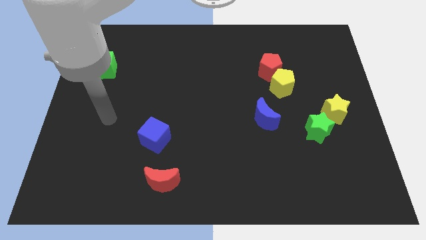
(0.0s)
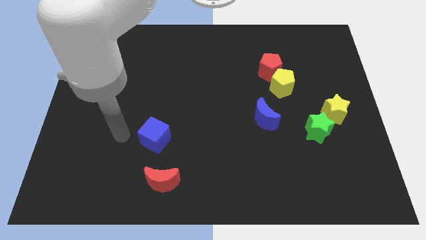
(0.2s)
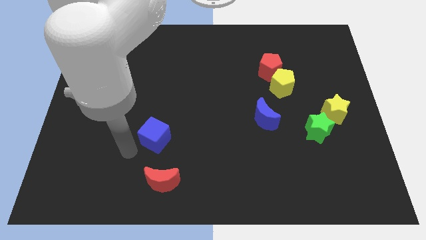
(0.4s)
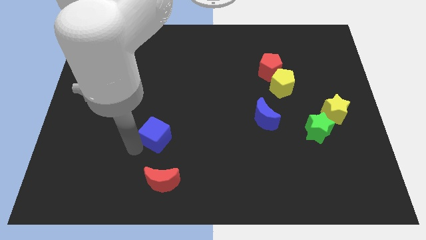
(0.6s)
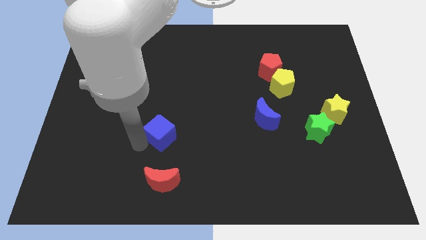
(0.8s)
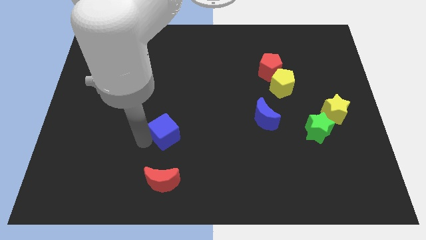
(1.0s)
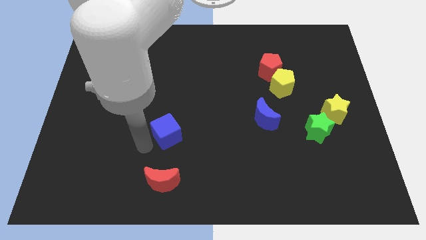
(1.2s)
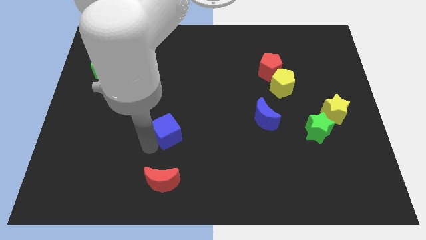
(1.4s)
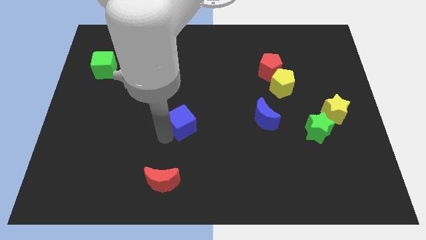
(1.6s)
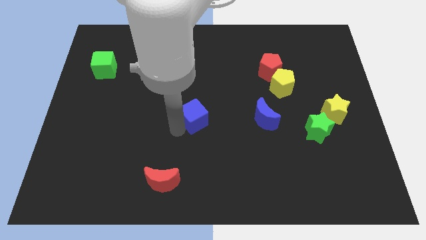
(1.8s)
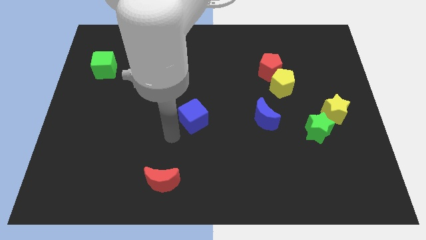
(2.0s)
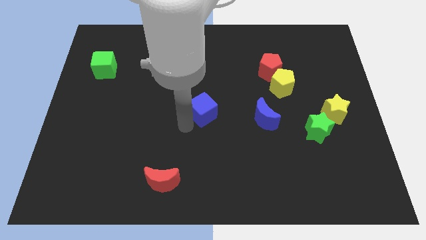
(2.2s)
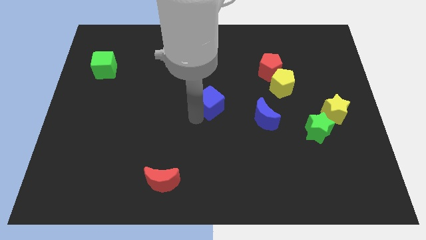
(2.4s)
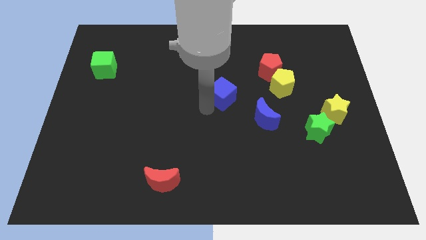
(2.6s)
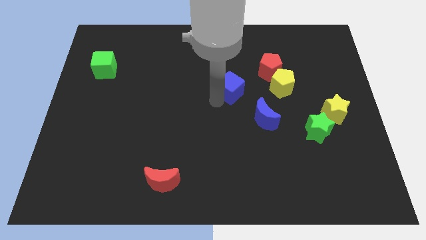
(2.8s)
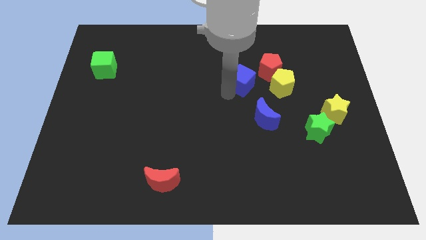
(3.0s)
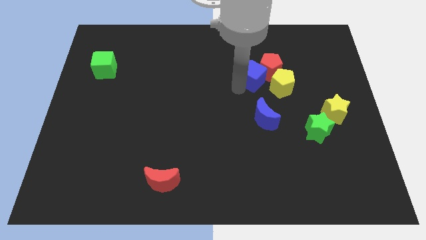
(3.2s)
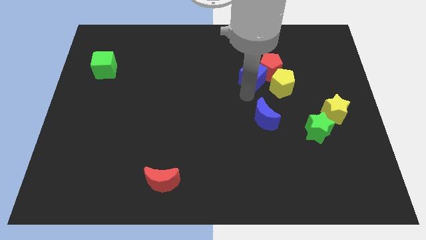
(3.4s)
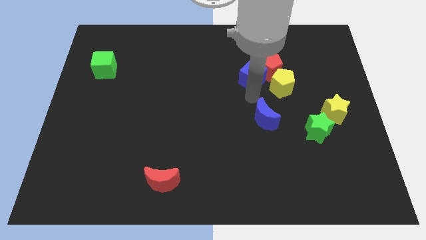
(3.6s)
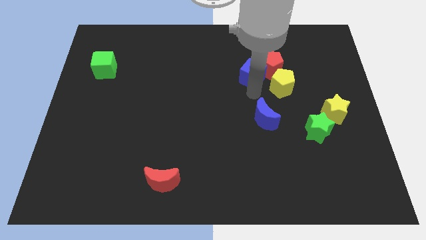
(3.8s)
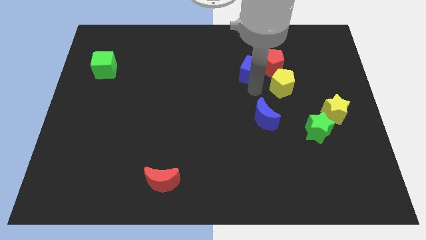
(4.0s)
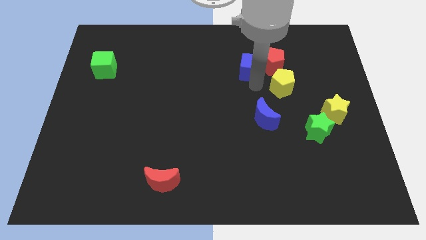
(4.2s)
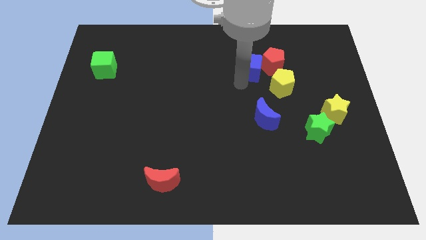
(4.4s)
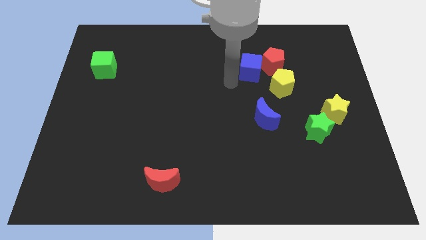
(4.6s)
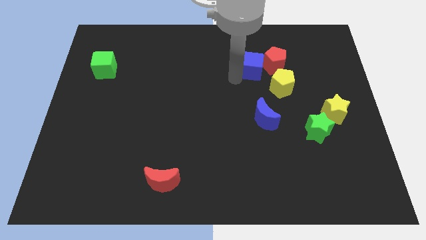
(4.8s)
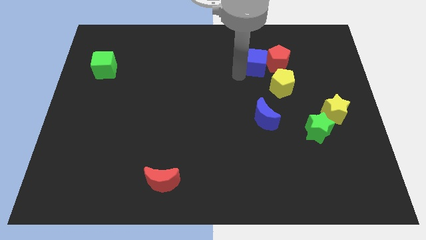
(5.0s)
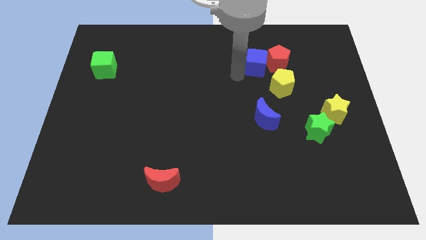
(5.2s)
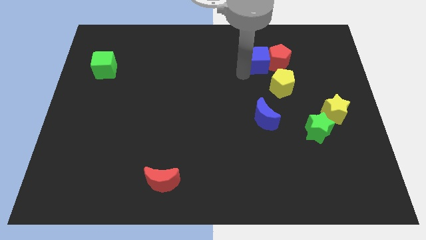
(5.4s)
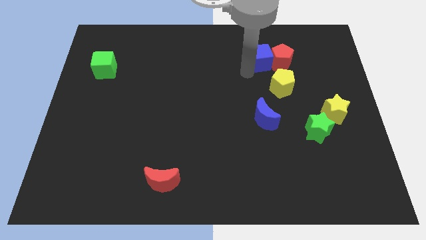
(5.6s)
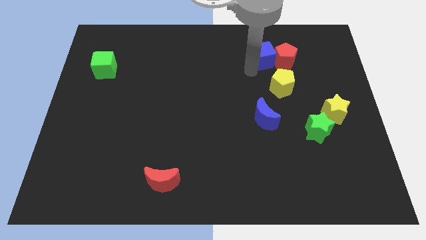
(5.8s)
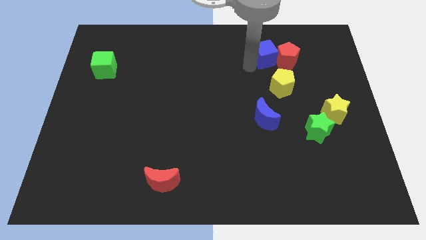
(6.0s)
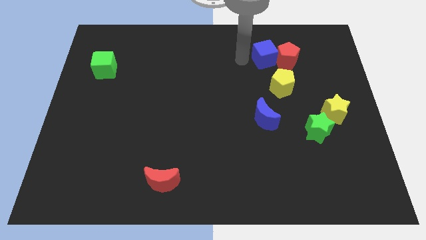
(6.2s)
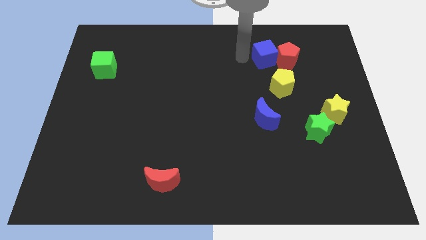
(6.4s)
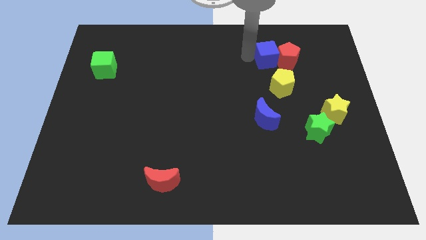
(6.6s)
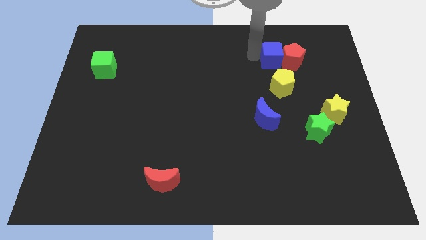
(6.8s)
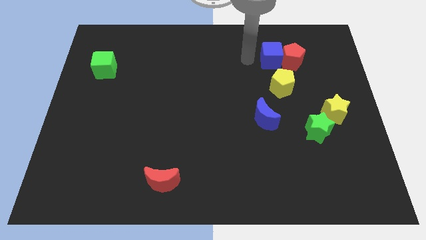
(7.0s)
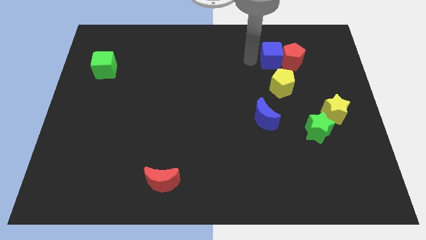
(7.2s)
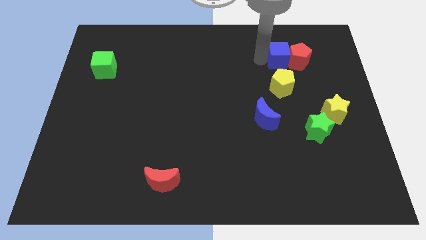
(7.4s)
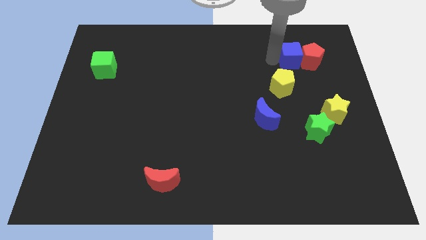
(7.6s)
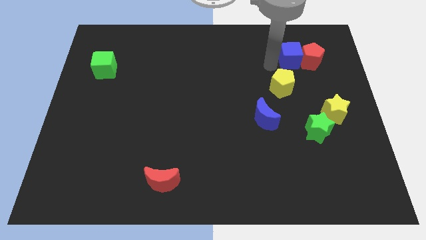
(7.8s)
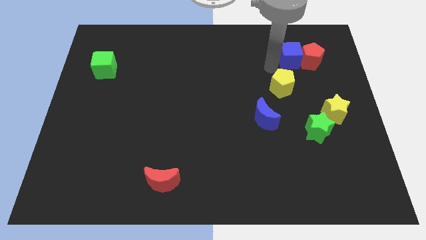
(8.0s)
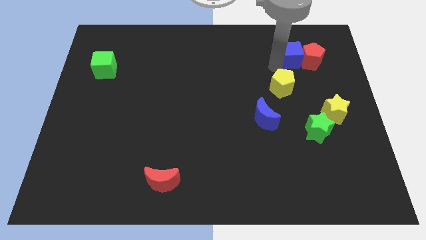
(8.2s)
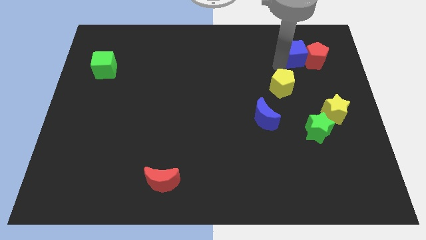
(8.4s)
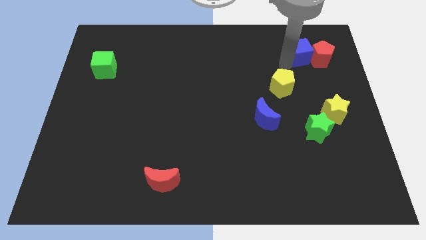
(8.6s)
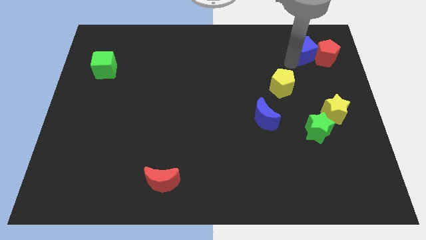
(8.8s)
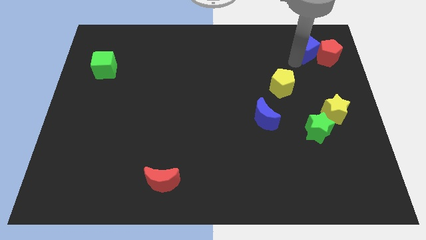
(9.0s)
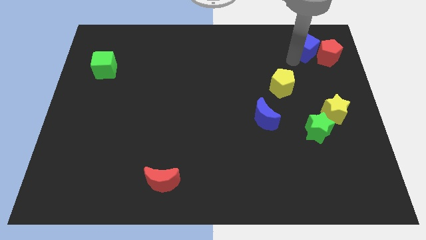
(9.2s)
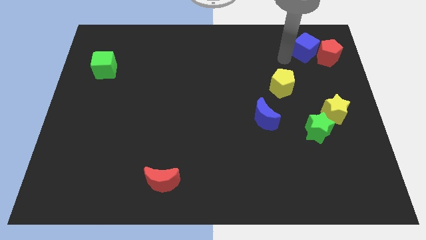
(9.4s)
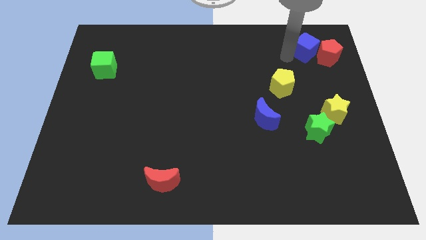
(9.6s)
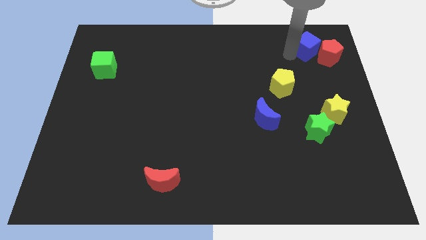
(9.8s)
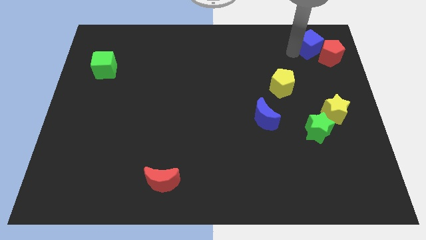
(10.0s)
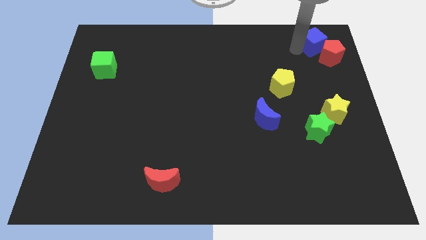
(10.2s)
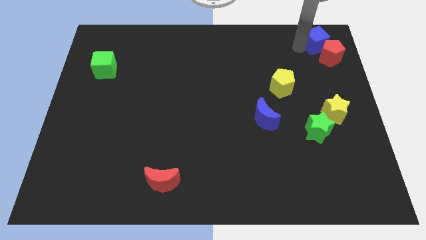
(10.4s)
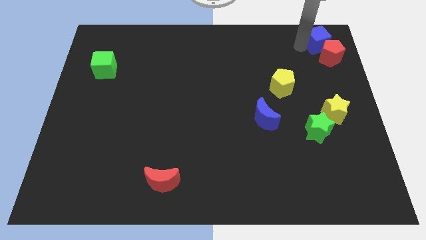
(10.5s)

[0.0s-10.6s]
slide the blue cube to the upper right corner

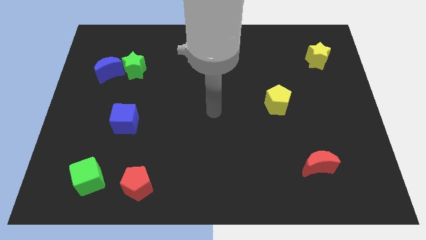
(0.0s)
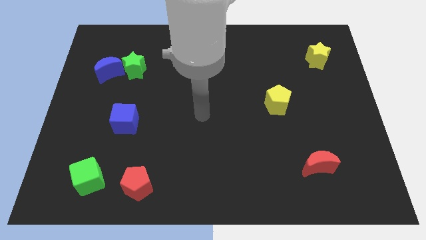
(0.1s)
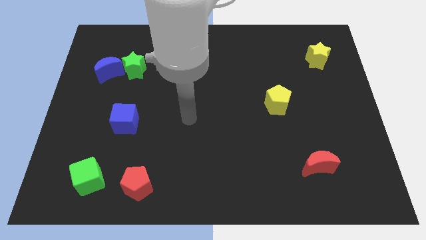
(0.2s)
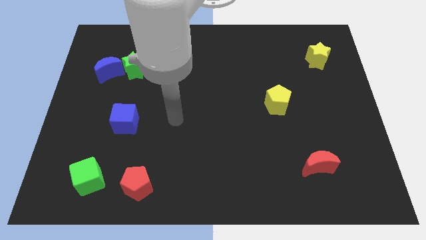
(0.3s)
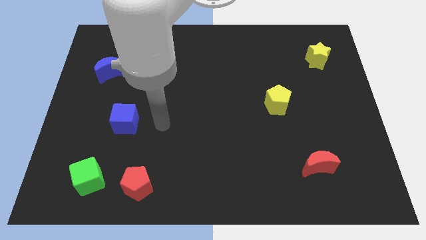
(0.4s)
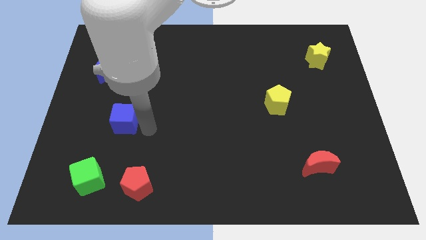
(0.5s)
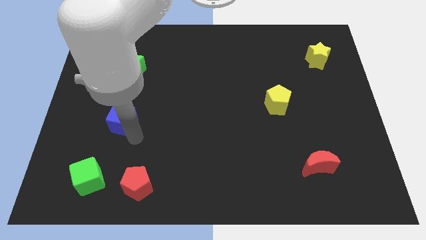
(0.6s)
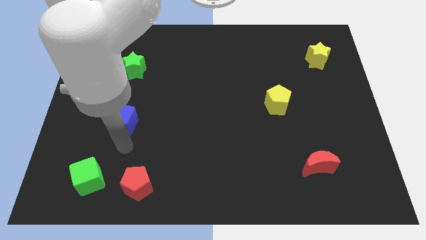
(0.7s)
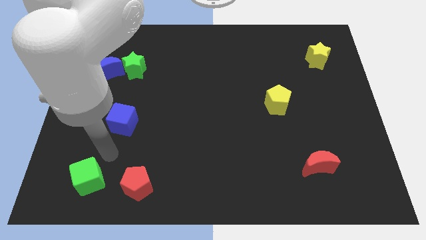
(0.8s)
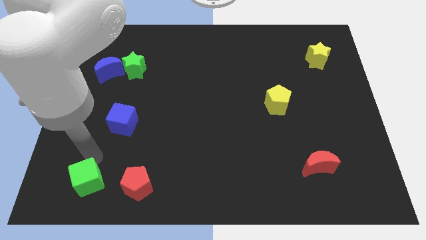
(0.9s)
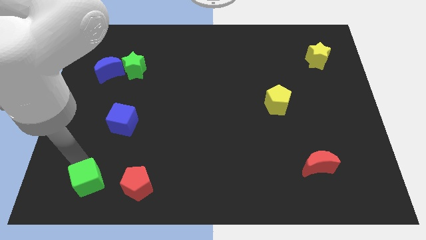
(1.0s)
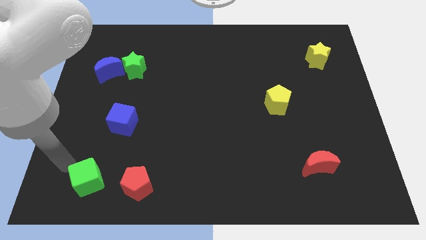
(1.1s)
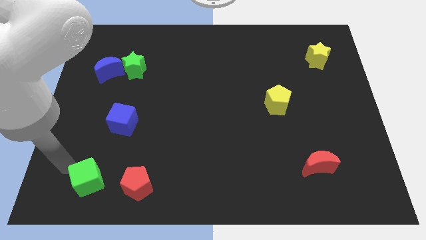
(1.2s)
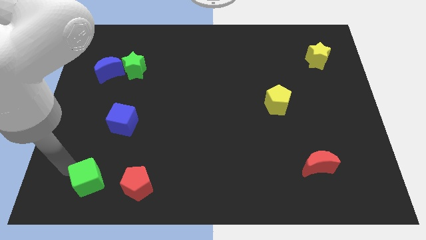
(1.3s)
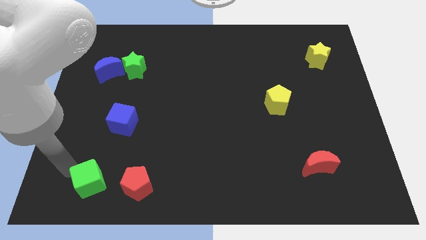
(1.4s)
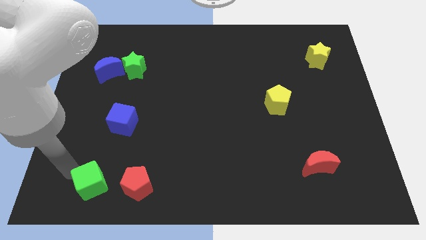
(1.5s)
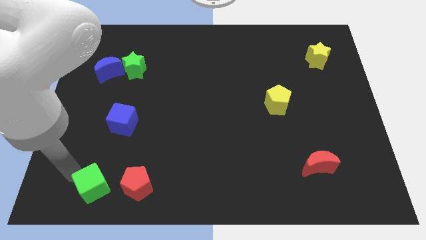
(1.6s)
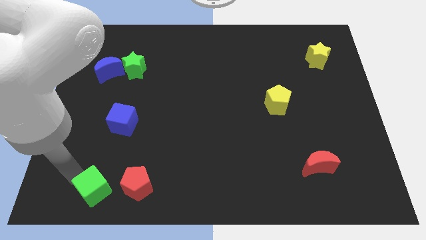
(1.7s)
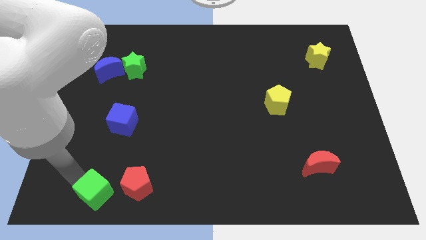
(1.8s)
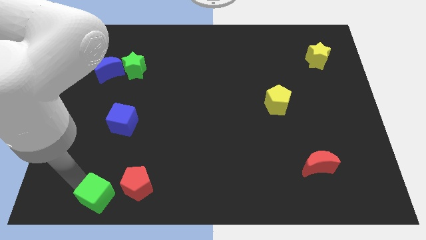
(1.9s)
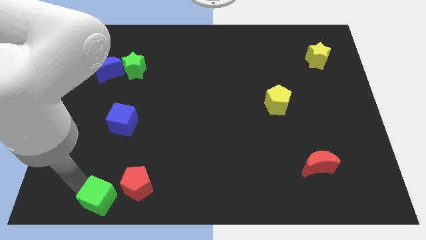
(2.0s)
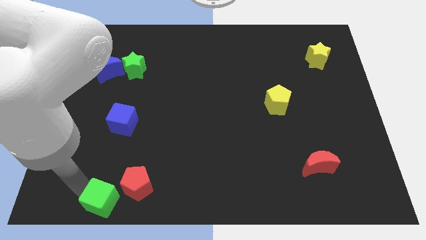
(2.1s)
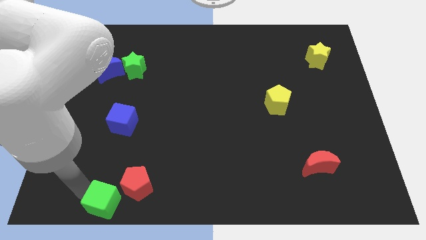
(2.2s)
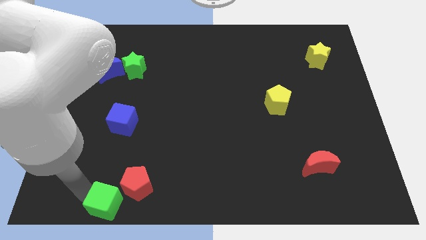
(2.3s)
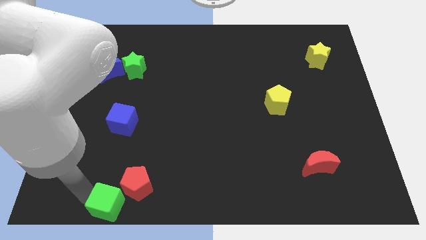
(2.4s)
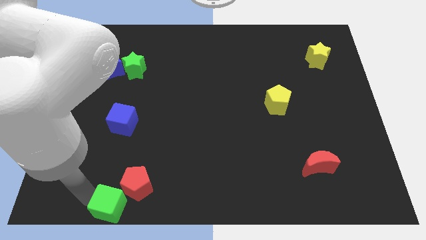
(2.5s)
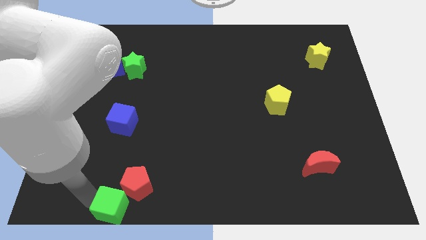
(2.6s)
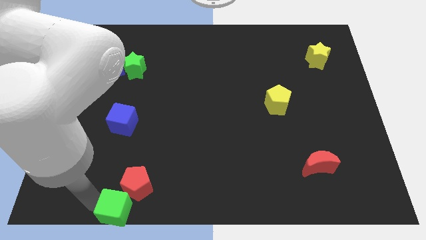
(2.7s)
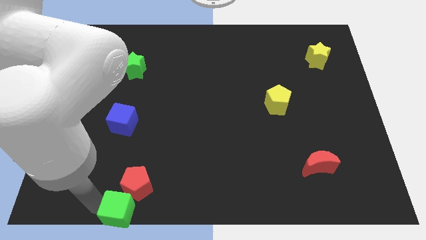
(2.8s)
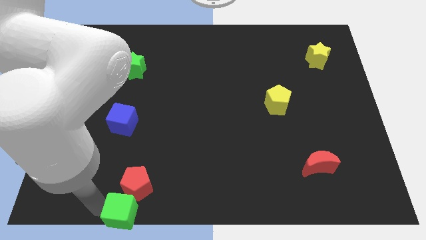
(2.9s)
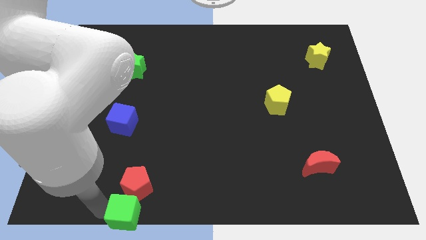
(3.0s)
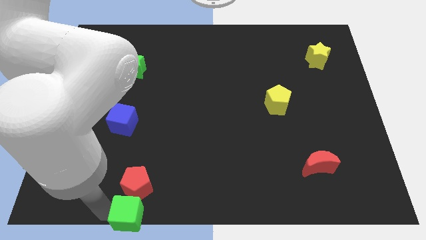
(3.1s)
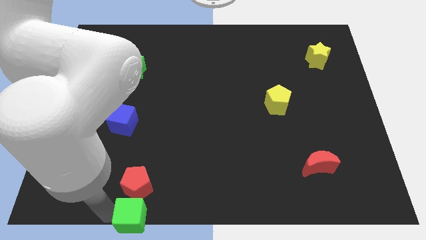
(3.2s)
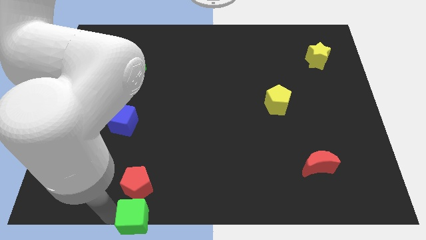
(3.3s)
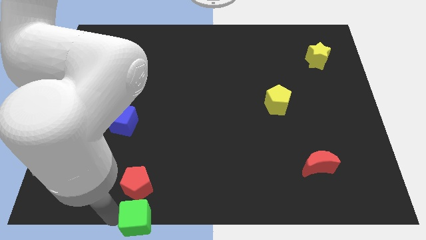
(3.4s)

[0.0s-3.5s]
slide the green cube to the bottom
